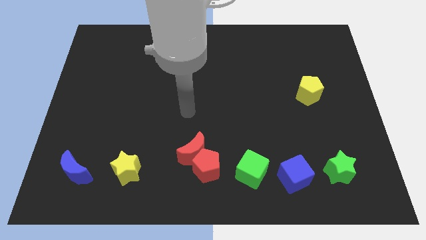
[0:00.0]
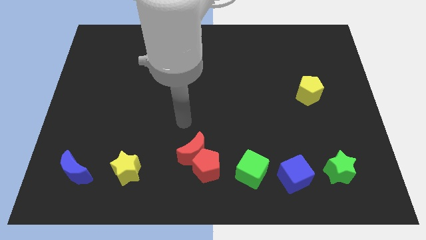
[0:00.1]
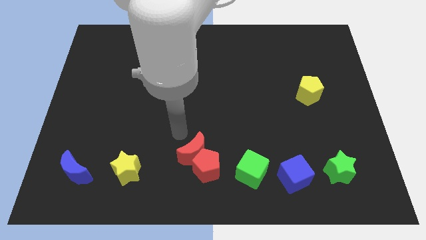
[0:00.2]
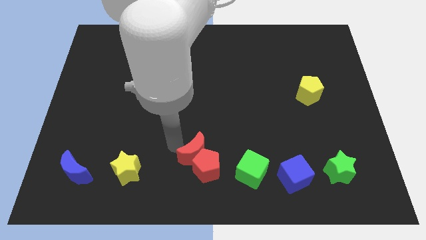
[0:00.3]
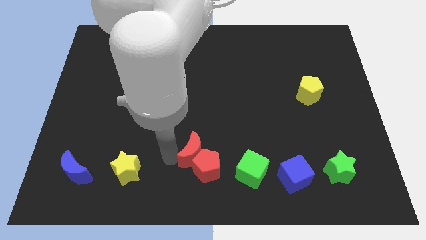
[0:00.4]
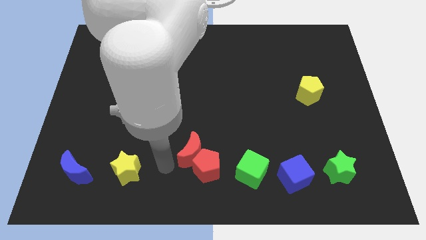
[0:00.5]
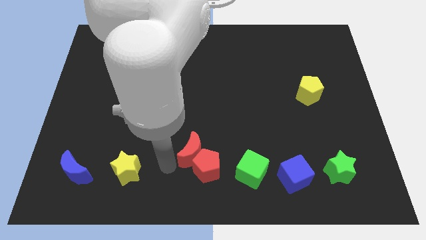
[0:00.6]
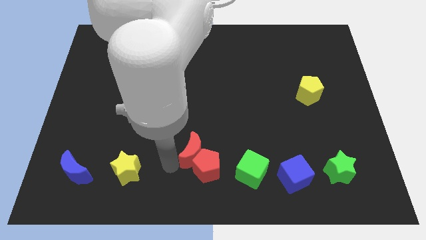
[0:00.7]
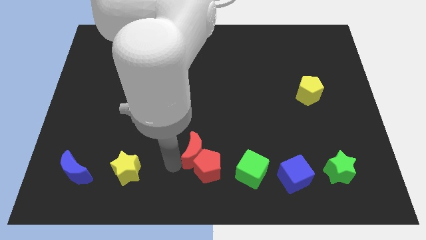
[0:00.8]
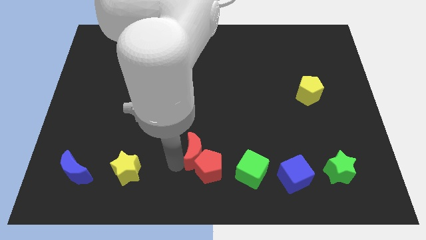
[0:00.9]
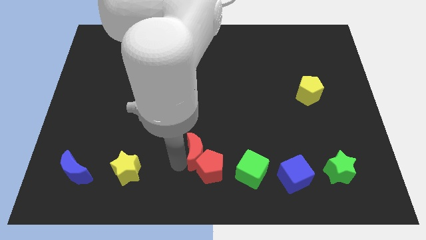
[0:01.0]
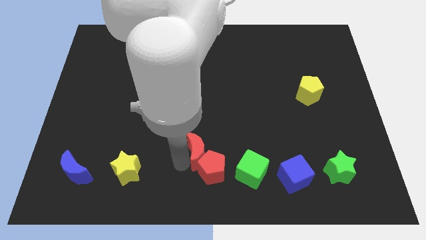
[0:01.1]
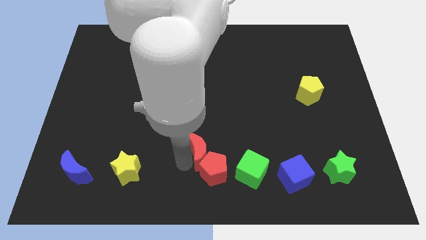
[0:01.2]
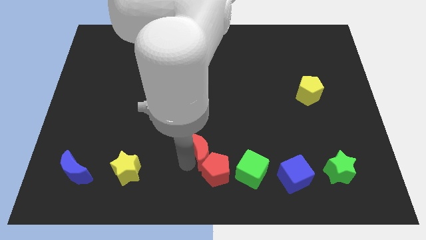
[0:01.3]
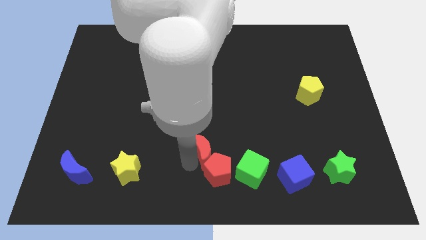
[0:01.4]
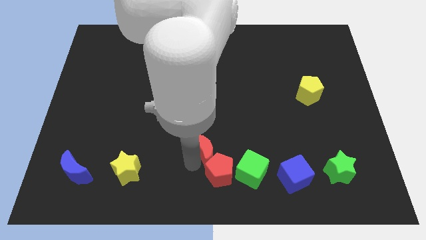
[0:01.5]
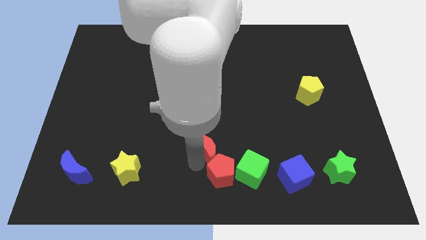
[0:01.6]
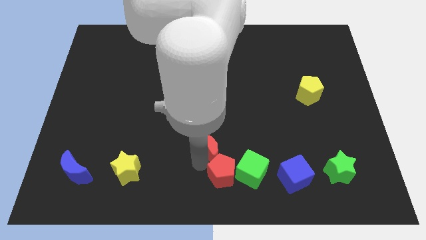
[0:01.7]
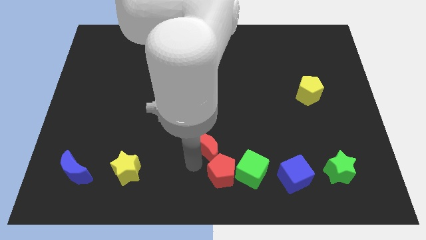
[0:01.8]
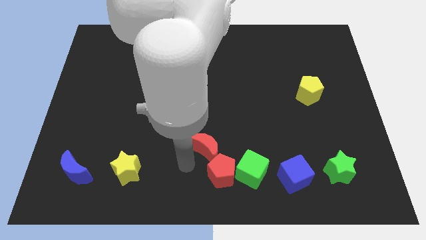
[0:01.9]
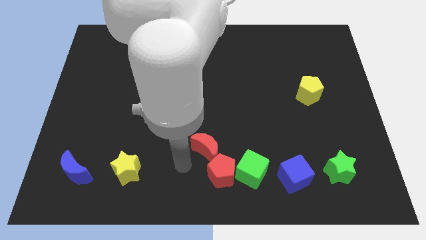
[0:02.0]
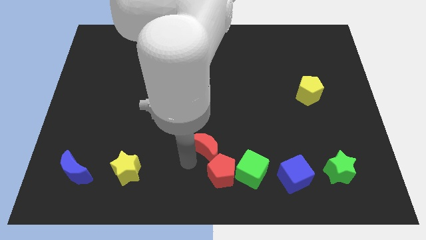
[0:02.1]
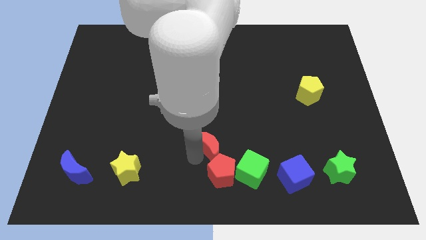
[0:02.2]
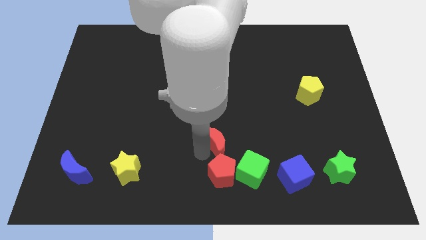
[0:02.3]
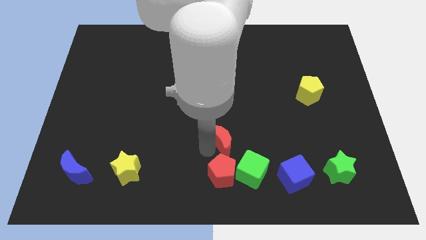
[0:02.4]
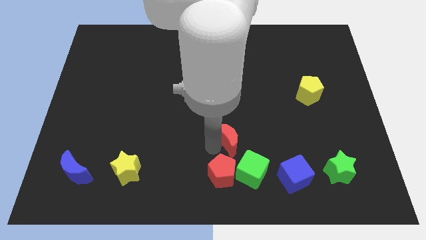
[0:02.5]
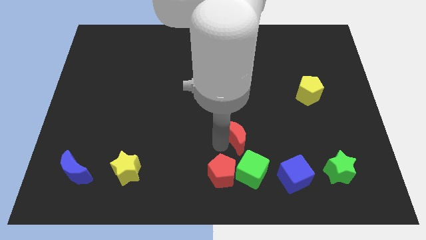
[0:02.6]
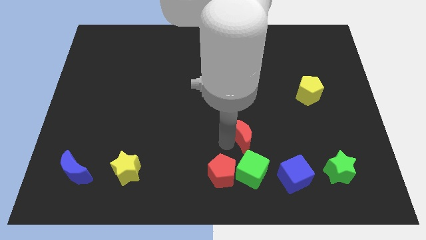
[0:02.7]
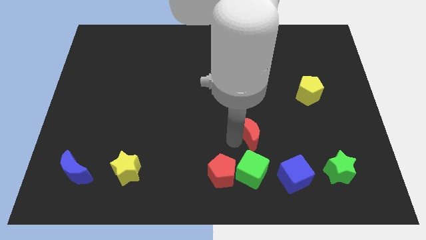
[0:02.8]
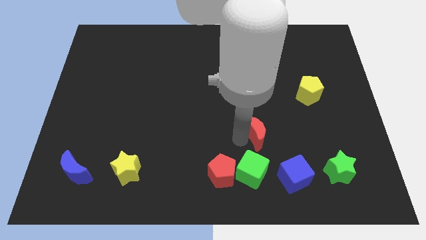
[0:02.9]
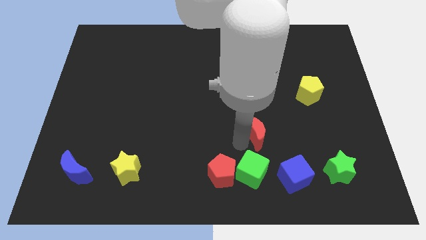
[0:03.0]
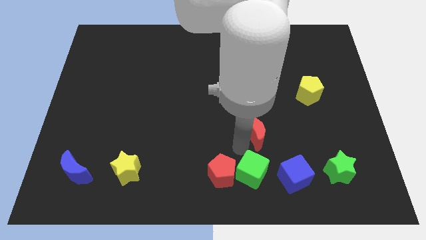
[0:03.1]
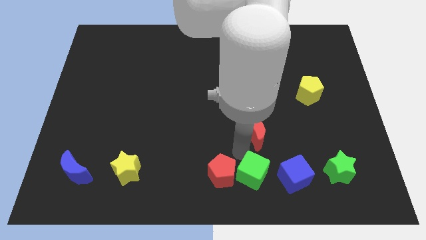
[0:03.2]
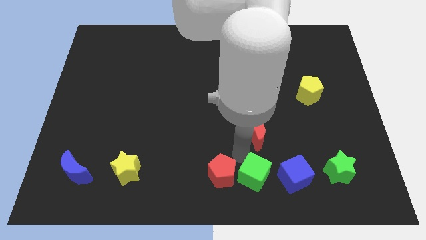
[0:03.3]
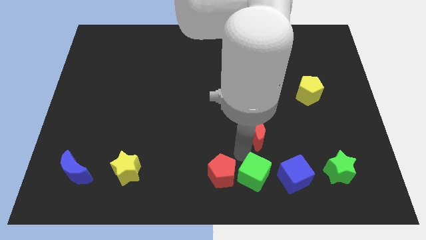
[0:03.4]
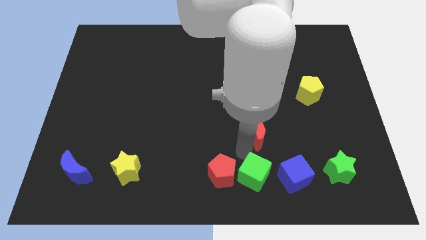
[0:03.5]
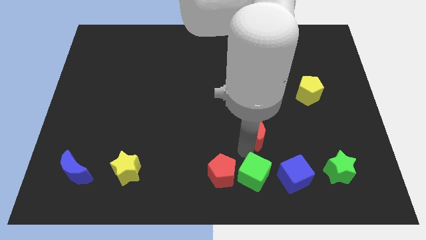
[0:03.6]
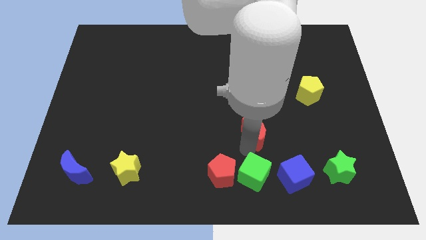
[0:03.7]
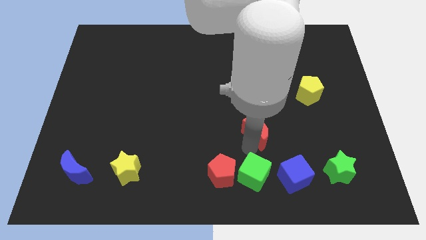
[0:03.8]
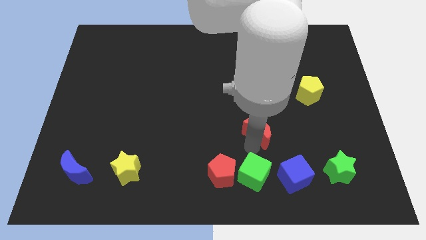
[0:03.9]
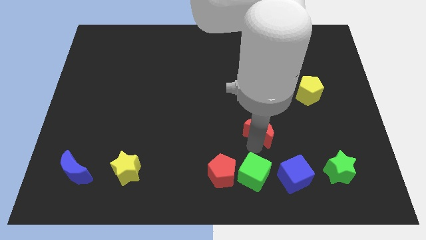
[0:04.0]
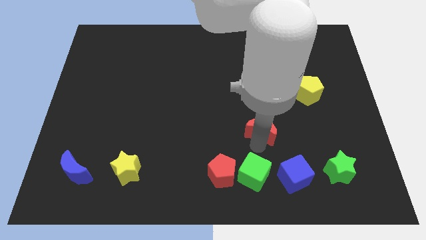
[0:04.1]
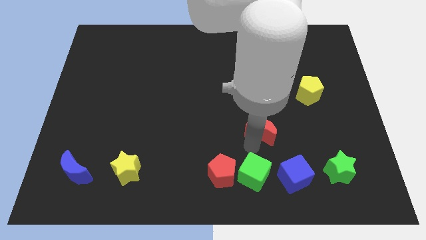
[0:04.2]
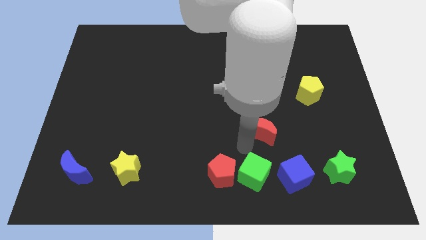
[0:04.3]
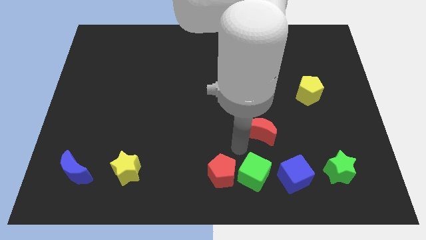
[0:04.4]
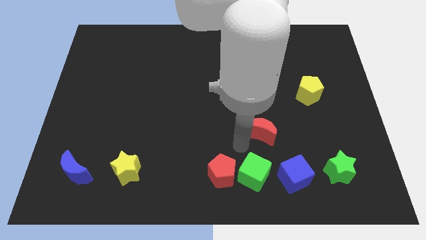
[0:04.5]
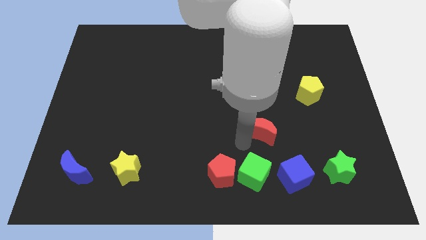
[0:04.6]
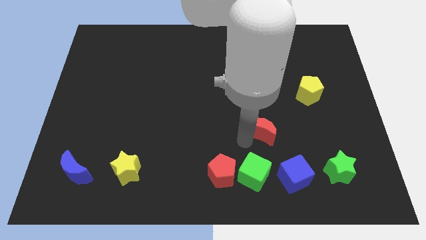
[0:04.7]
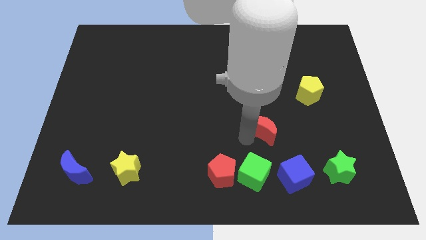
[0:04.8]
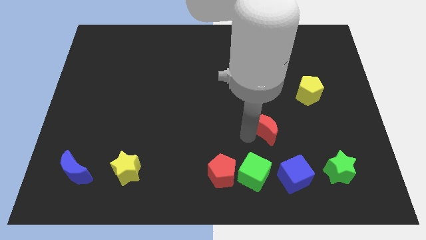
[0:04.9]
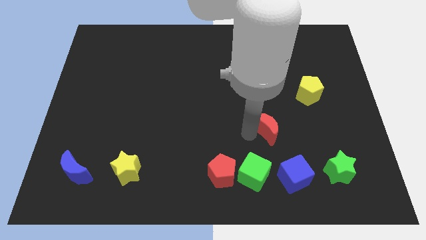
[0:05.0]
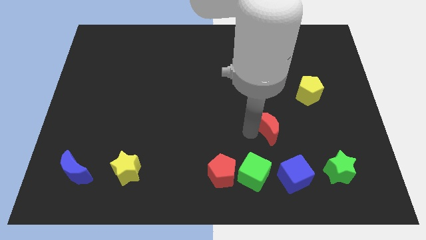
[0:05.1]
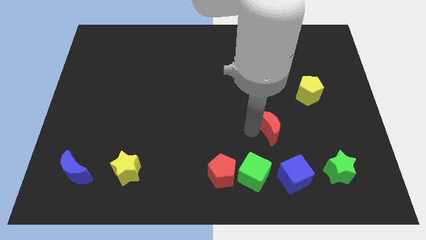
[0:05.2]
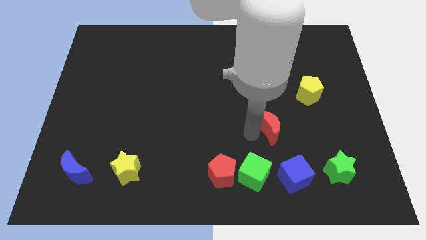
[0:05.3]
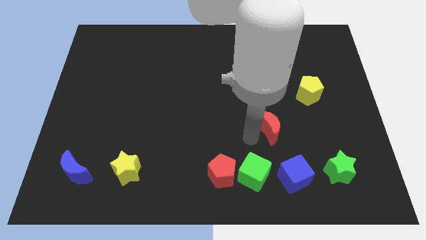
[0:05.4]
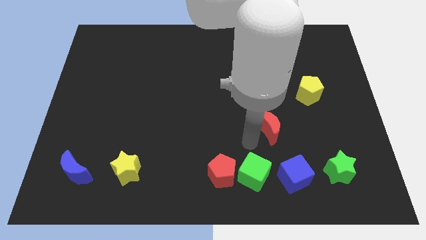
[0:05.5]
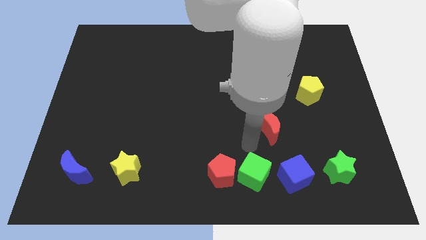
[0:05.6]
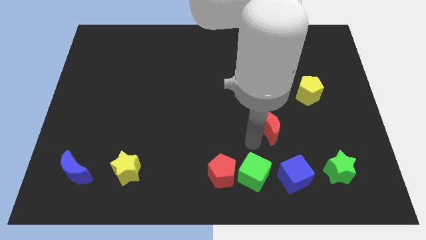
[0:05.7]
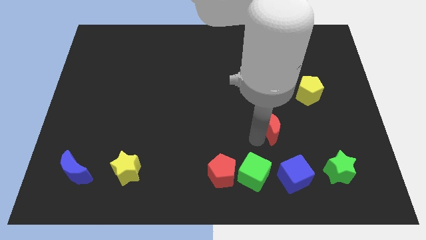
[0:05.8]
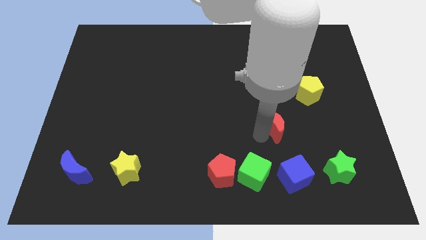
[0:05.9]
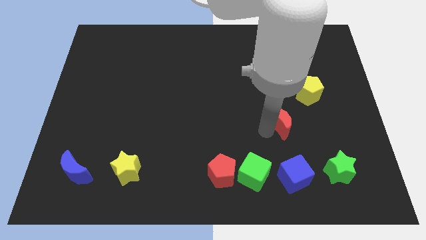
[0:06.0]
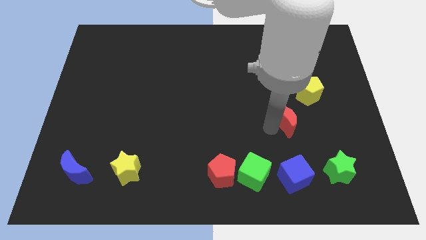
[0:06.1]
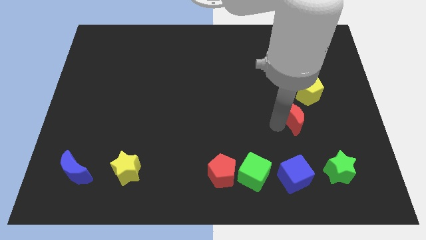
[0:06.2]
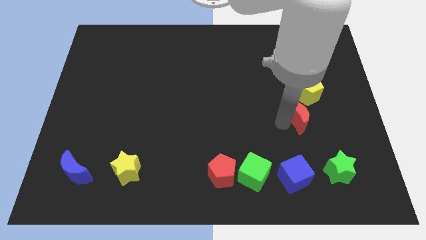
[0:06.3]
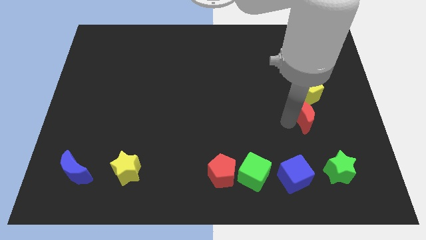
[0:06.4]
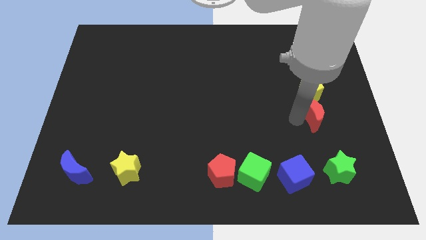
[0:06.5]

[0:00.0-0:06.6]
push the red moon to the bottom right side of the yellow pentagon

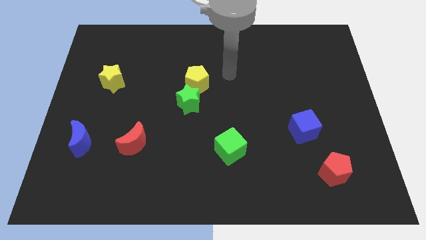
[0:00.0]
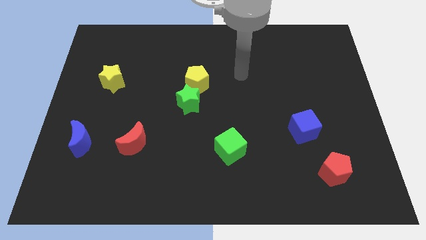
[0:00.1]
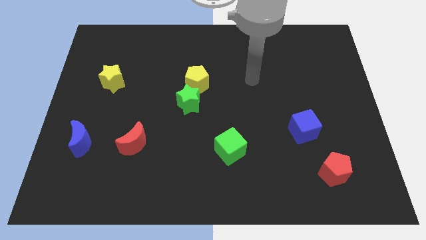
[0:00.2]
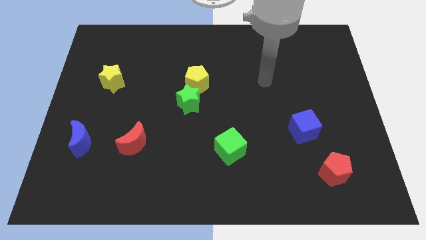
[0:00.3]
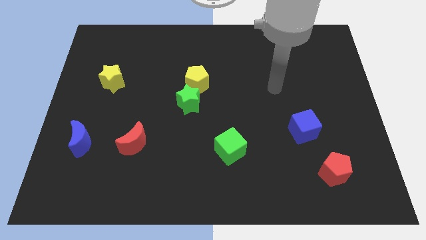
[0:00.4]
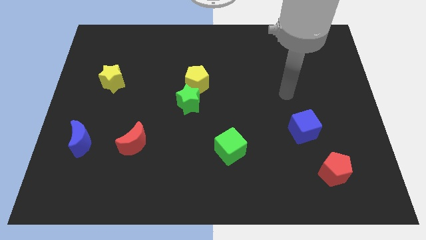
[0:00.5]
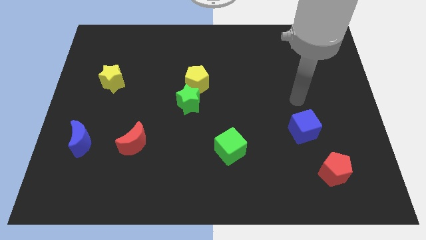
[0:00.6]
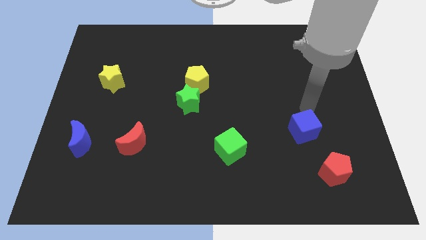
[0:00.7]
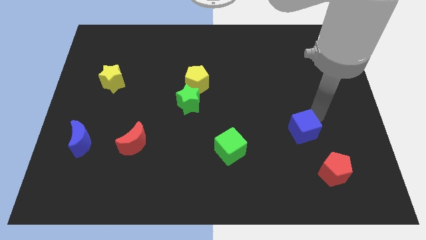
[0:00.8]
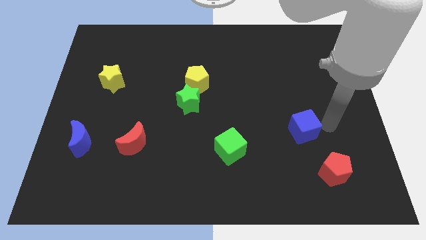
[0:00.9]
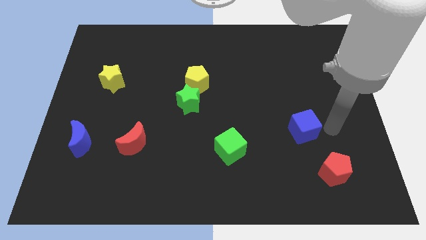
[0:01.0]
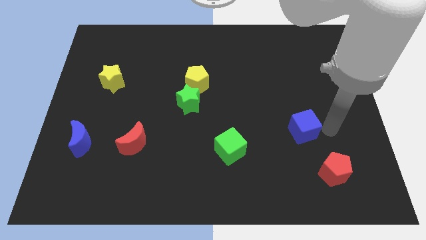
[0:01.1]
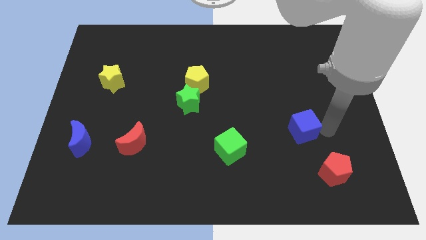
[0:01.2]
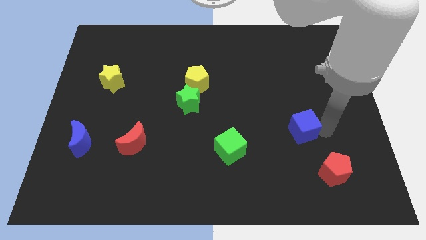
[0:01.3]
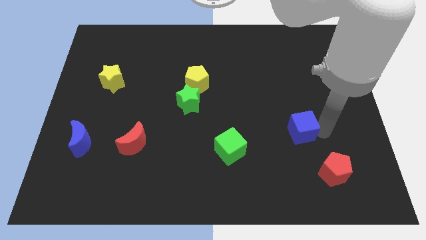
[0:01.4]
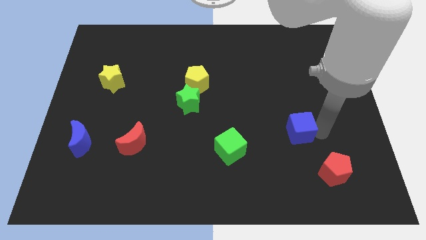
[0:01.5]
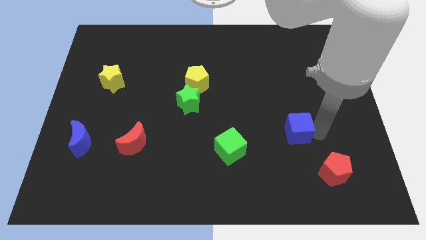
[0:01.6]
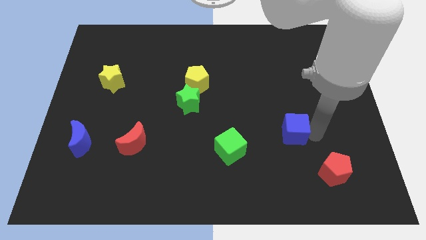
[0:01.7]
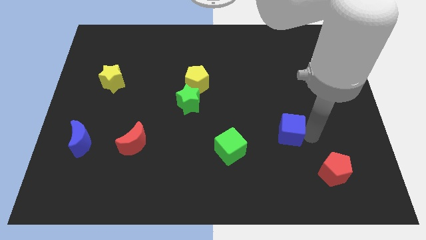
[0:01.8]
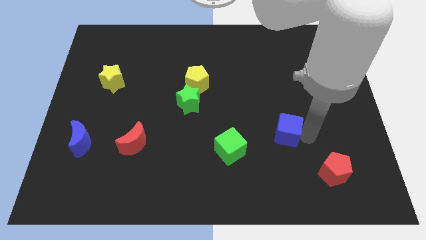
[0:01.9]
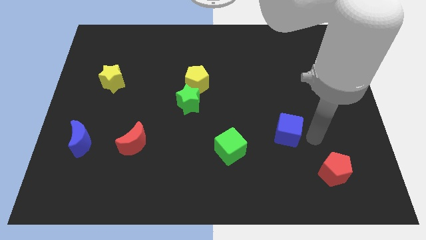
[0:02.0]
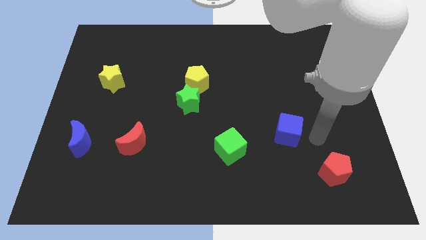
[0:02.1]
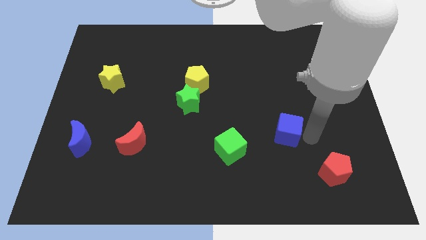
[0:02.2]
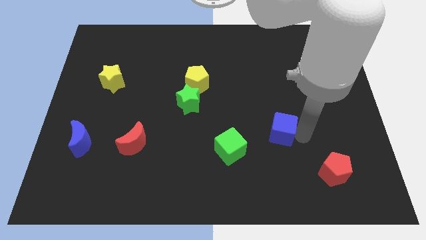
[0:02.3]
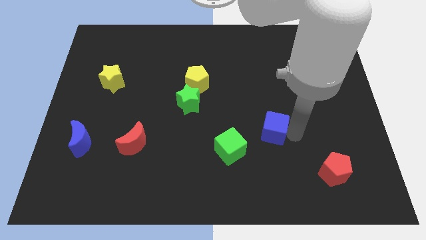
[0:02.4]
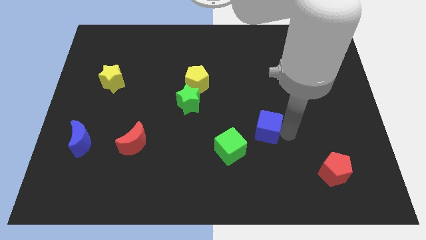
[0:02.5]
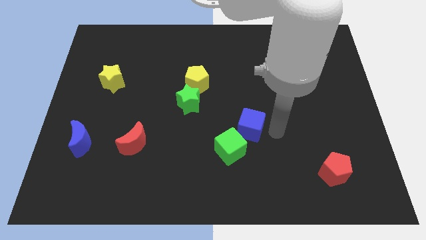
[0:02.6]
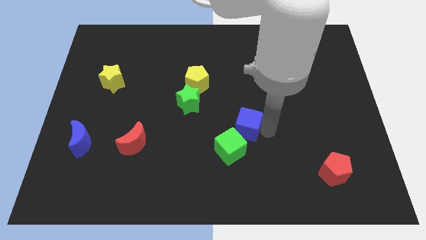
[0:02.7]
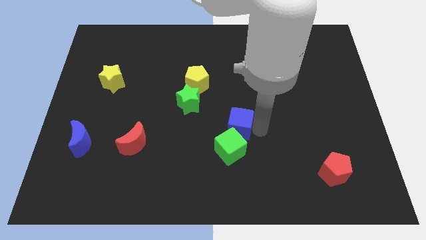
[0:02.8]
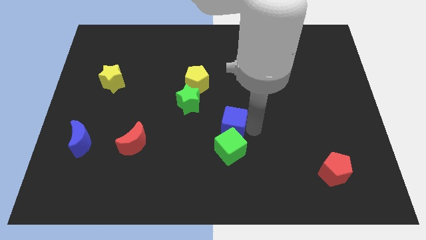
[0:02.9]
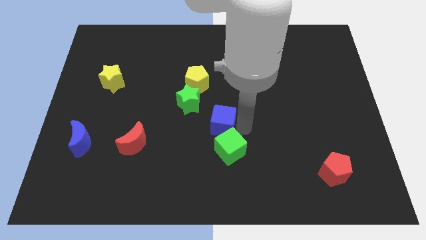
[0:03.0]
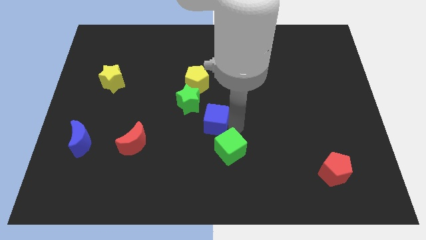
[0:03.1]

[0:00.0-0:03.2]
move the blue cube below the yellow pentagon
